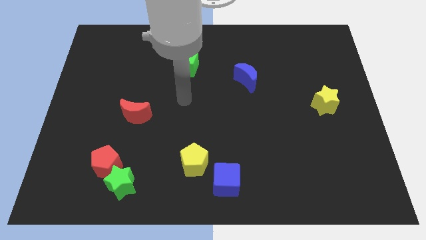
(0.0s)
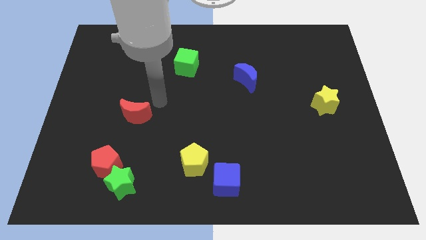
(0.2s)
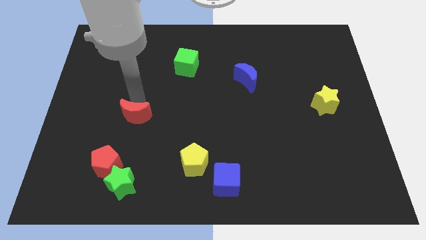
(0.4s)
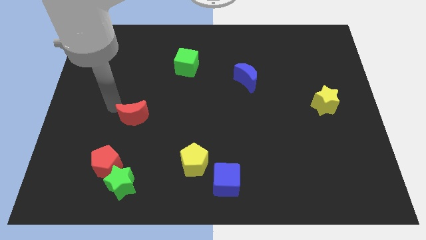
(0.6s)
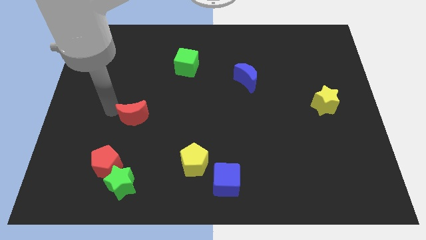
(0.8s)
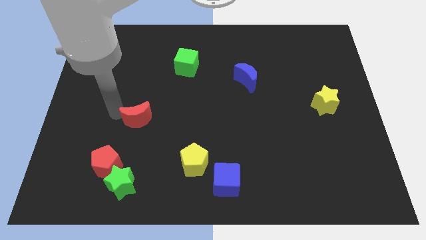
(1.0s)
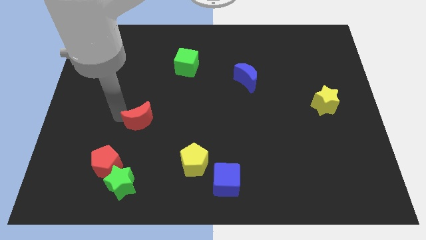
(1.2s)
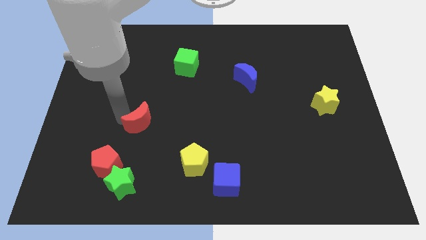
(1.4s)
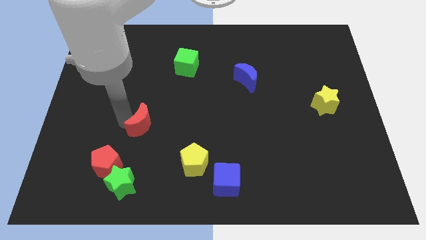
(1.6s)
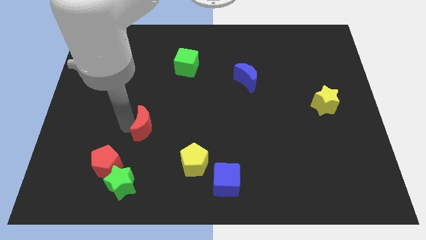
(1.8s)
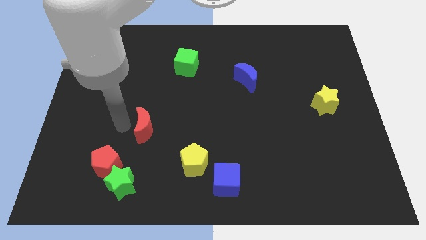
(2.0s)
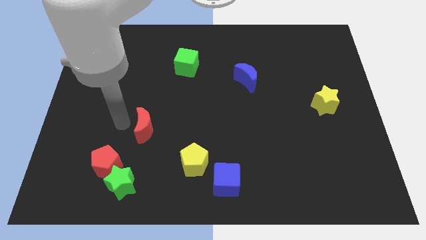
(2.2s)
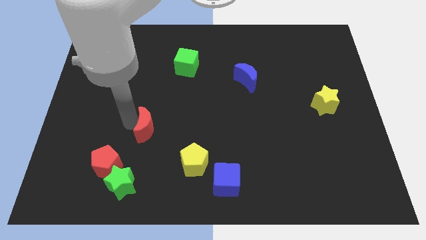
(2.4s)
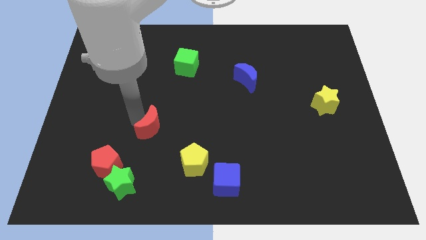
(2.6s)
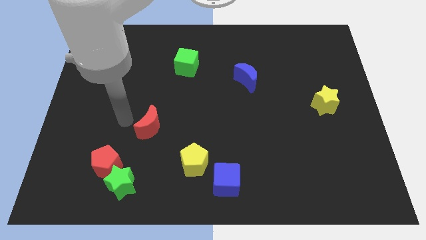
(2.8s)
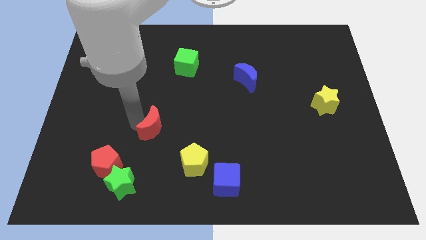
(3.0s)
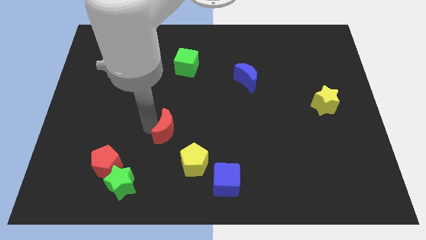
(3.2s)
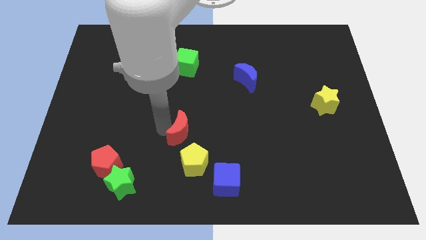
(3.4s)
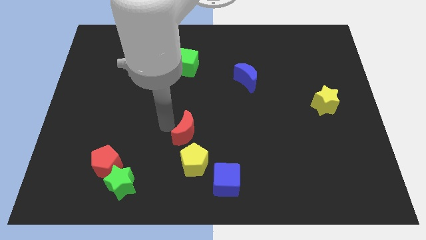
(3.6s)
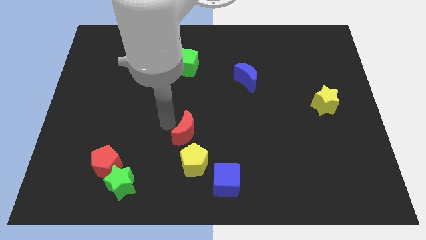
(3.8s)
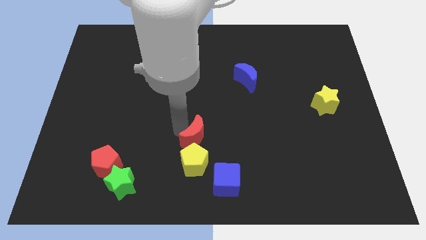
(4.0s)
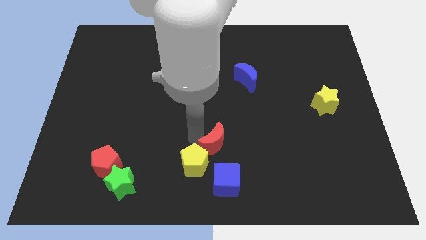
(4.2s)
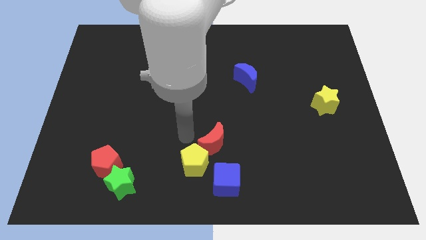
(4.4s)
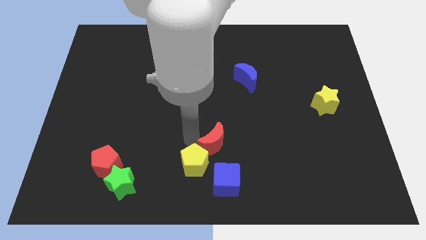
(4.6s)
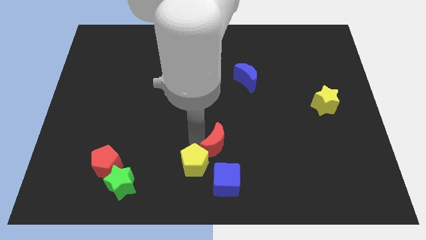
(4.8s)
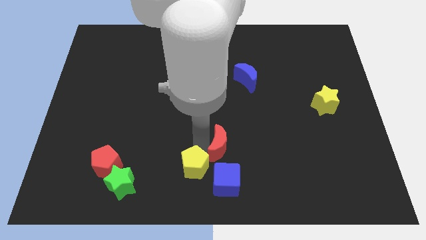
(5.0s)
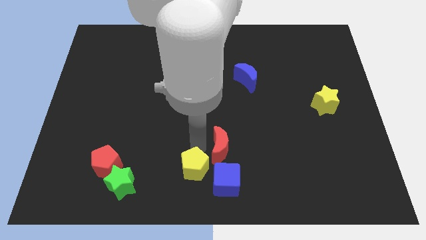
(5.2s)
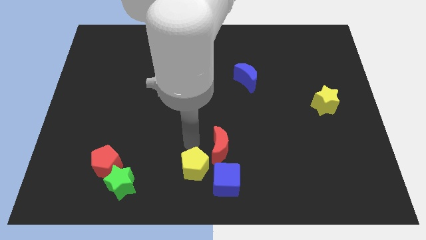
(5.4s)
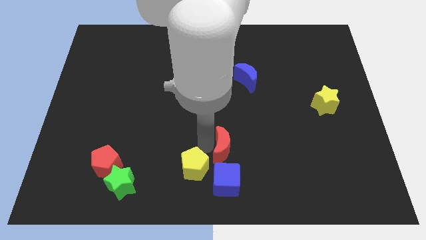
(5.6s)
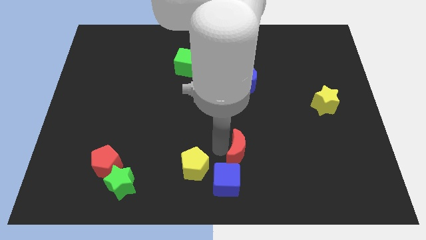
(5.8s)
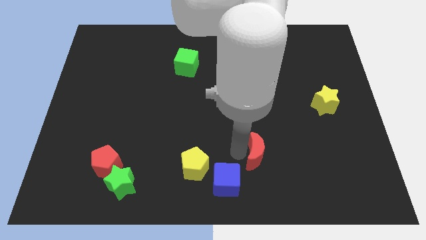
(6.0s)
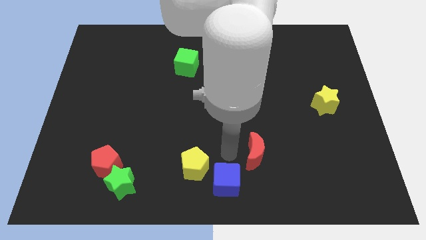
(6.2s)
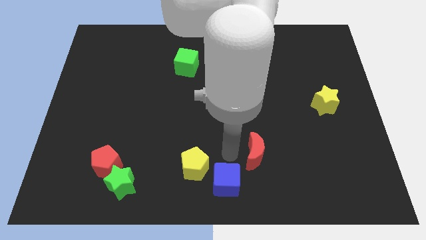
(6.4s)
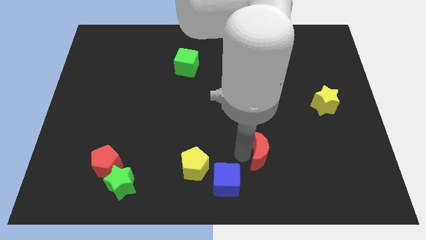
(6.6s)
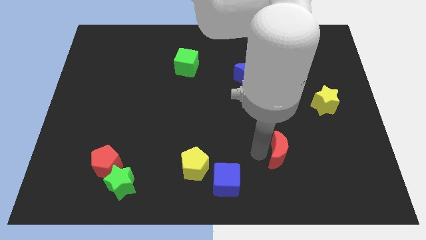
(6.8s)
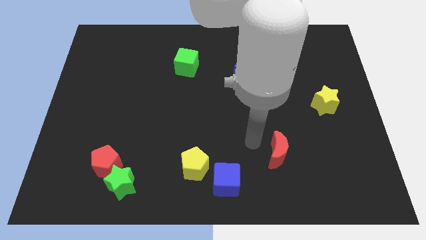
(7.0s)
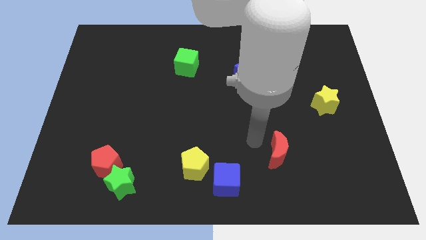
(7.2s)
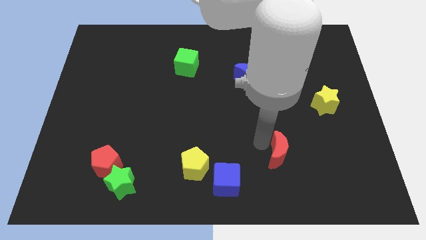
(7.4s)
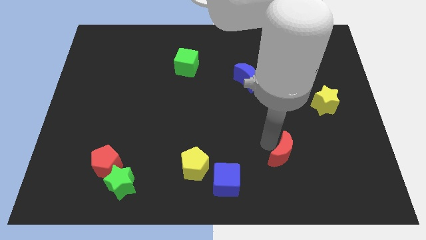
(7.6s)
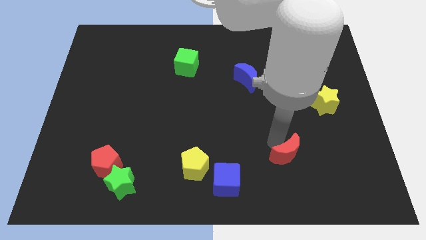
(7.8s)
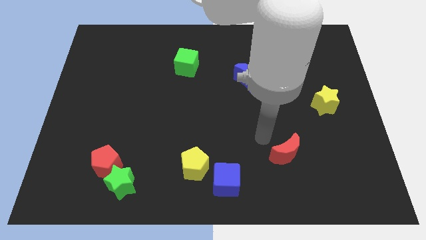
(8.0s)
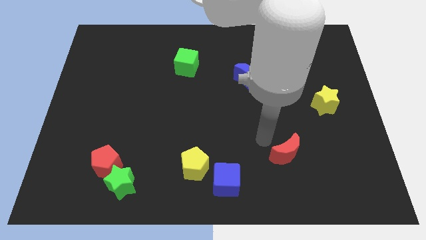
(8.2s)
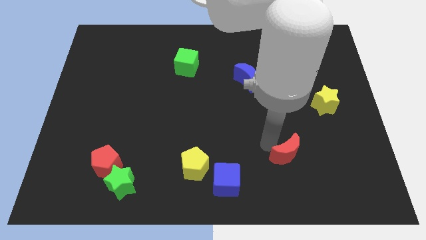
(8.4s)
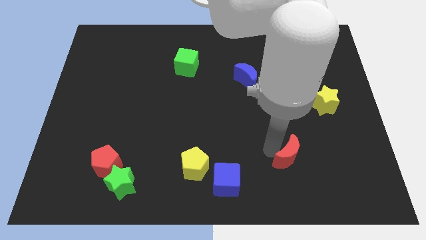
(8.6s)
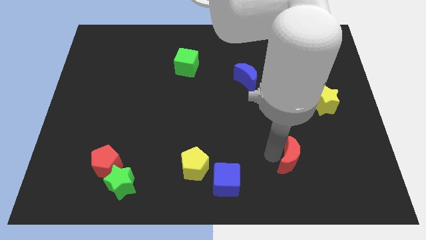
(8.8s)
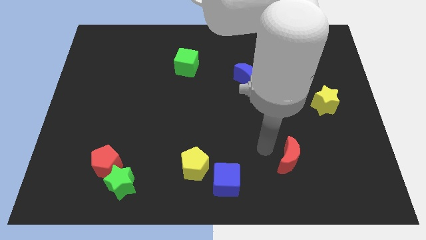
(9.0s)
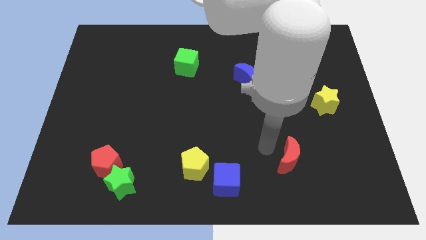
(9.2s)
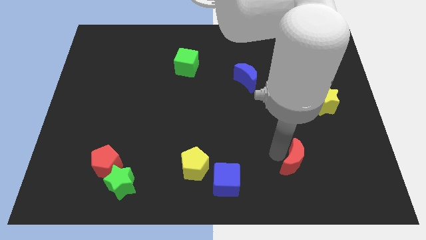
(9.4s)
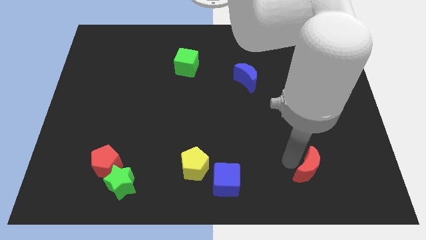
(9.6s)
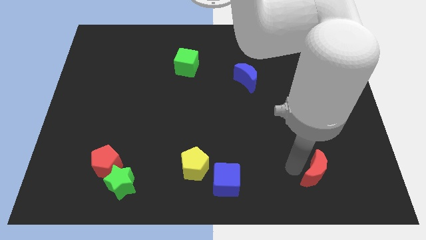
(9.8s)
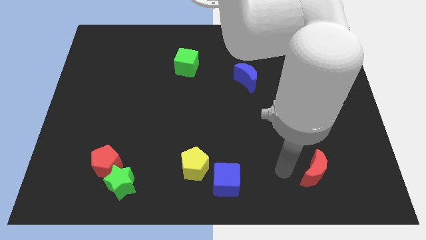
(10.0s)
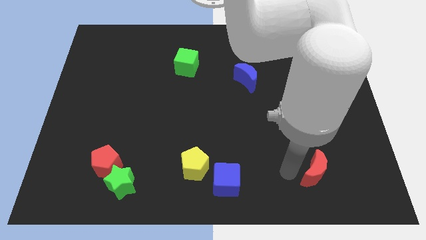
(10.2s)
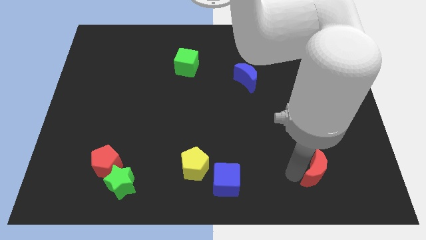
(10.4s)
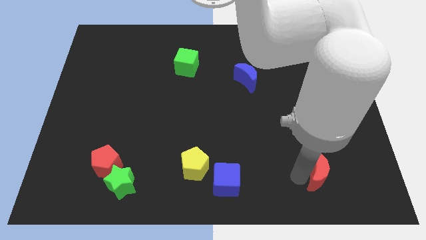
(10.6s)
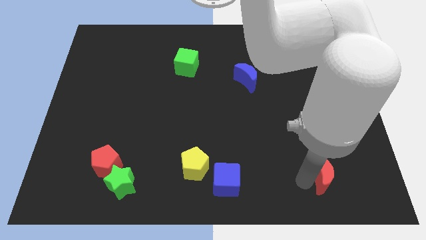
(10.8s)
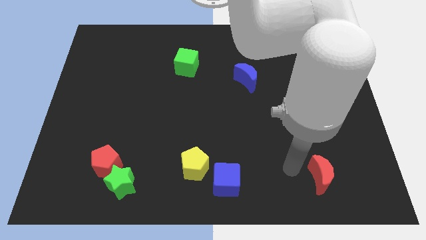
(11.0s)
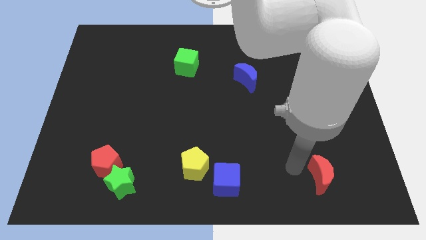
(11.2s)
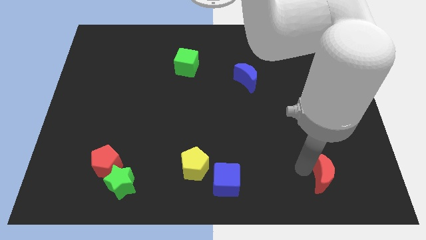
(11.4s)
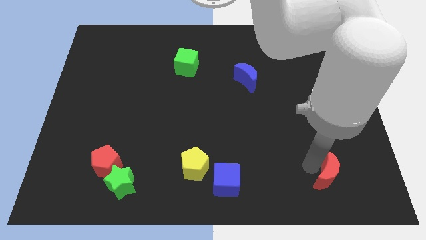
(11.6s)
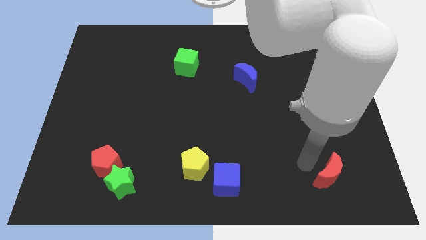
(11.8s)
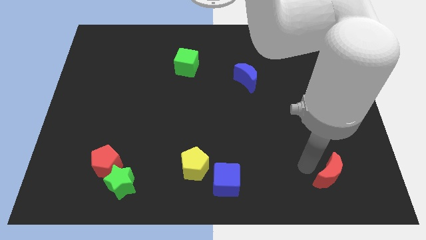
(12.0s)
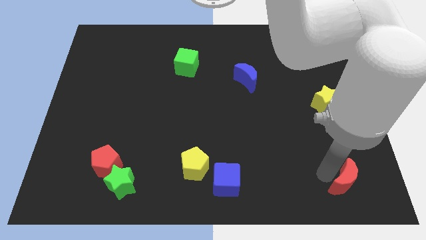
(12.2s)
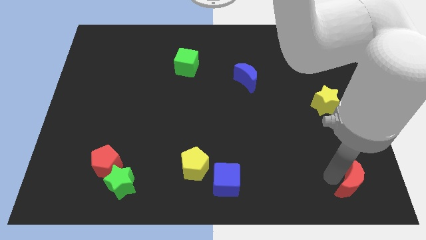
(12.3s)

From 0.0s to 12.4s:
put the red moon to the lower right corner
